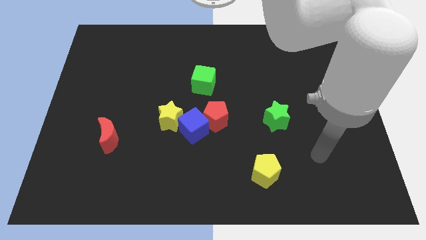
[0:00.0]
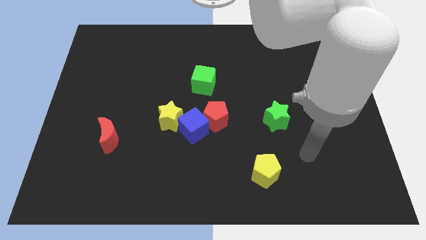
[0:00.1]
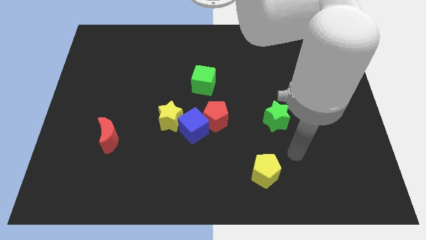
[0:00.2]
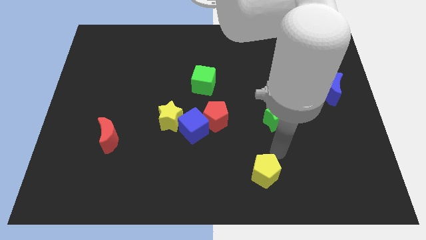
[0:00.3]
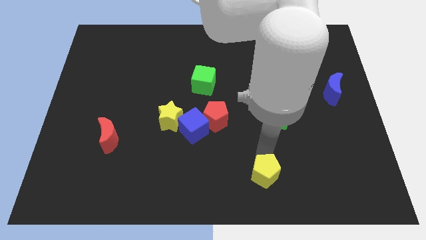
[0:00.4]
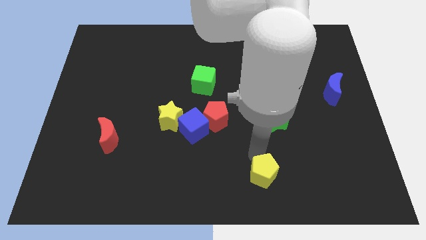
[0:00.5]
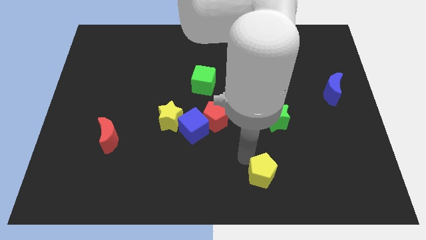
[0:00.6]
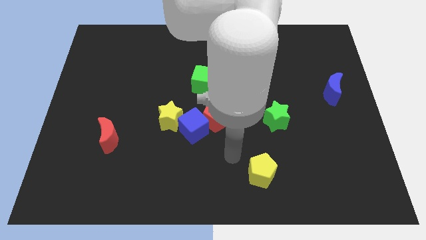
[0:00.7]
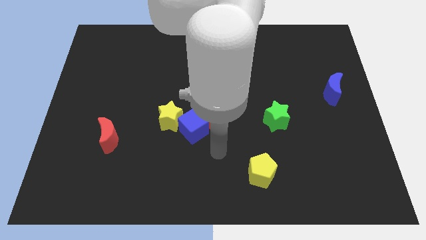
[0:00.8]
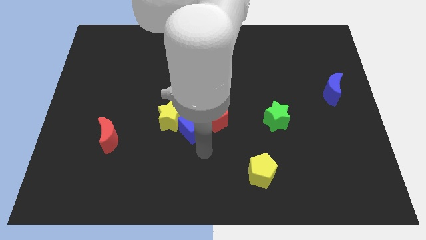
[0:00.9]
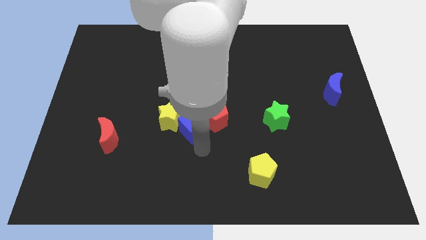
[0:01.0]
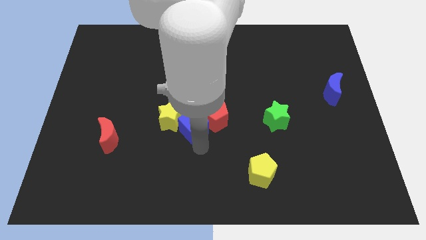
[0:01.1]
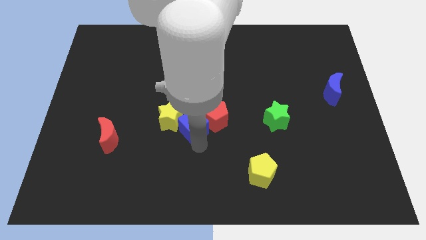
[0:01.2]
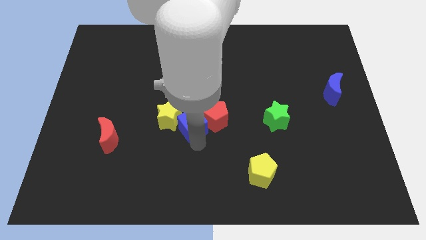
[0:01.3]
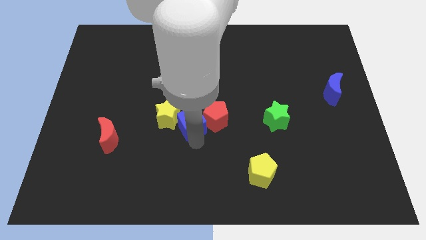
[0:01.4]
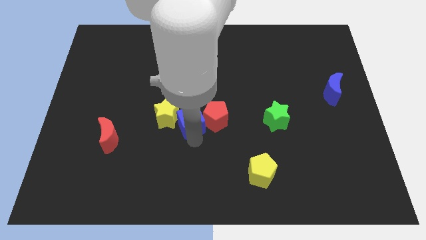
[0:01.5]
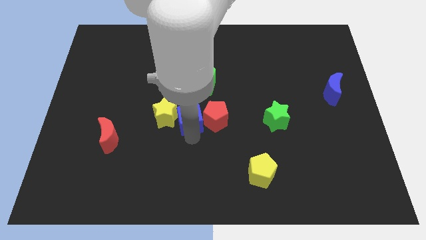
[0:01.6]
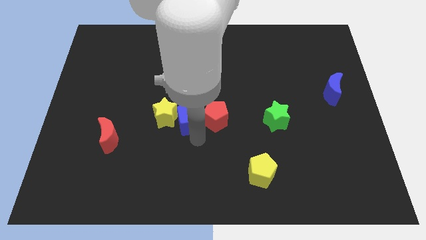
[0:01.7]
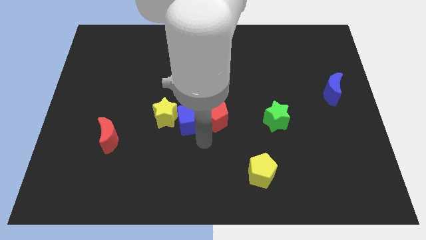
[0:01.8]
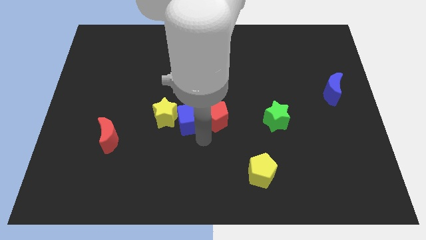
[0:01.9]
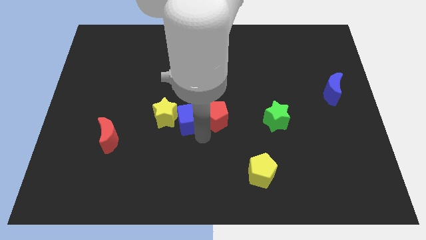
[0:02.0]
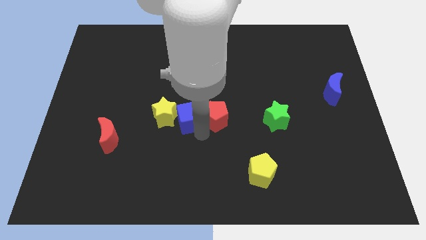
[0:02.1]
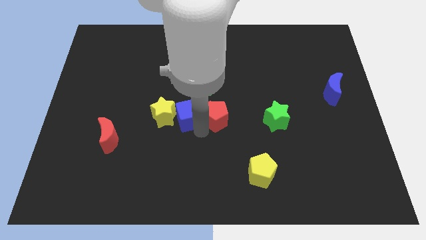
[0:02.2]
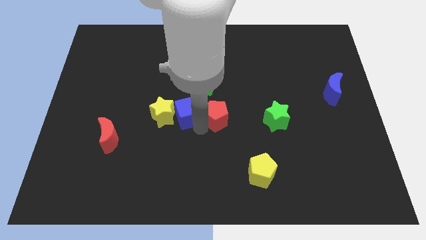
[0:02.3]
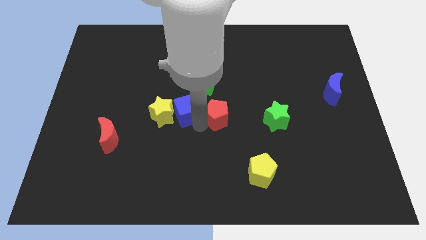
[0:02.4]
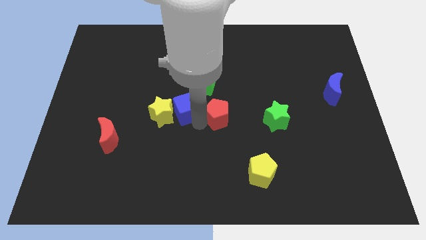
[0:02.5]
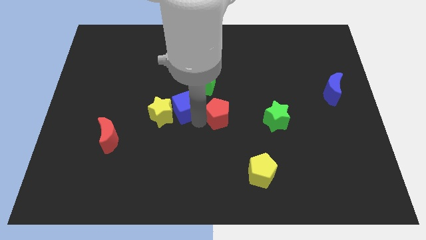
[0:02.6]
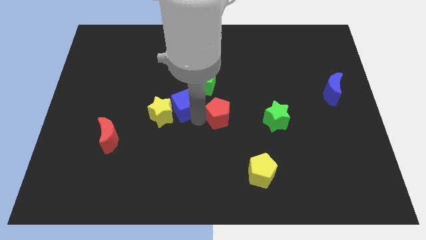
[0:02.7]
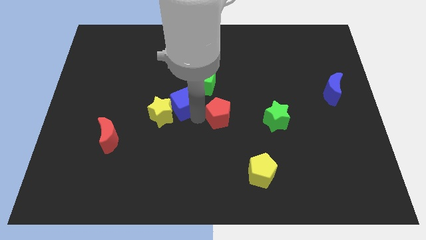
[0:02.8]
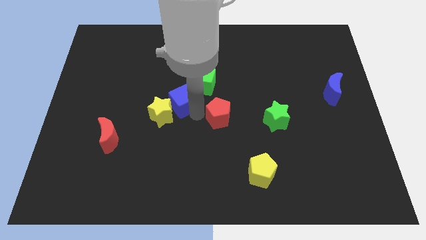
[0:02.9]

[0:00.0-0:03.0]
slightly slide the blue cube up and left

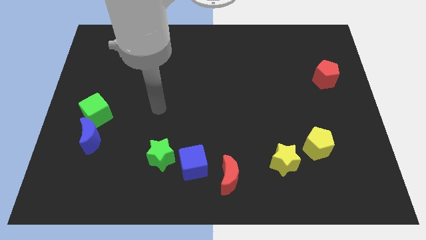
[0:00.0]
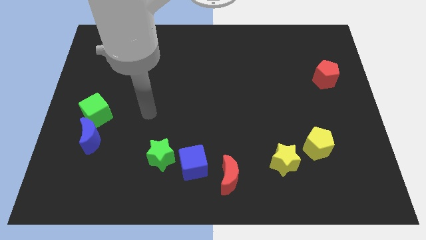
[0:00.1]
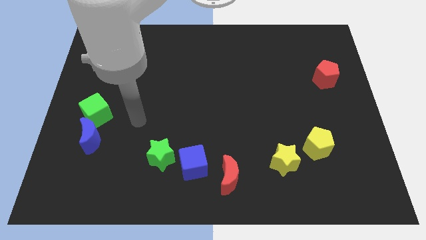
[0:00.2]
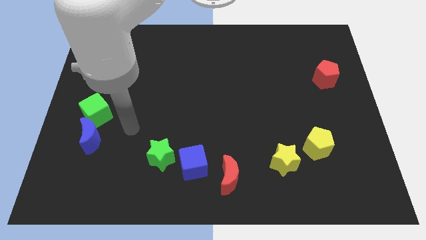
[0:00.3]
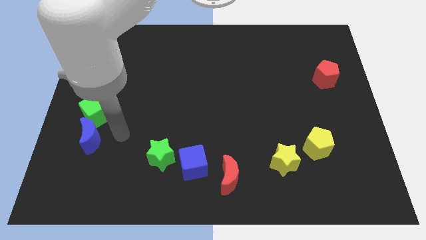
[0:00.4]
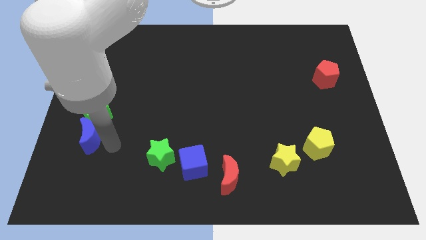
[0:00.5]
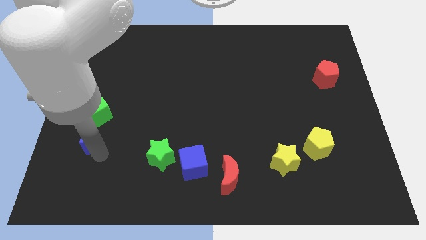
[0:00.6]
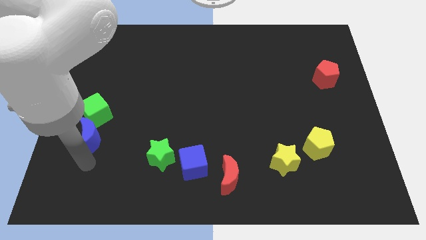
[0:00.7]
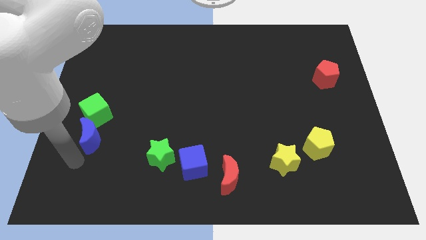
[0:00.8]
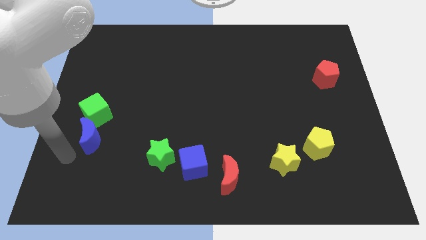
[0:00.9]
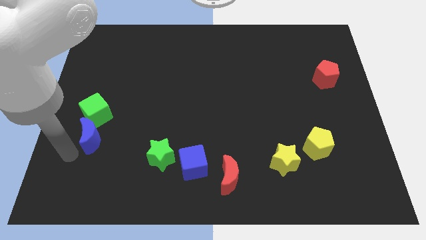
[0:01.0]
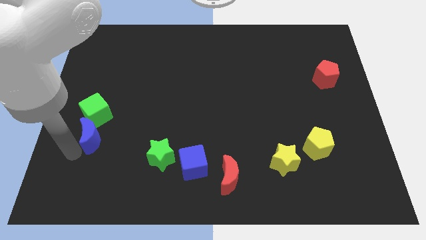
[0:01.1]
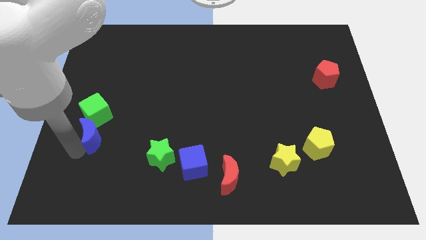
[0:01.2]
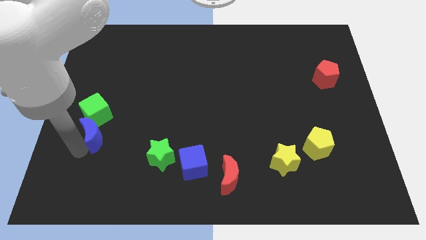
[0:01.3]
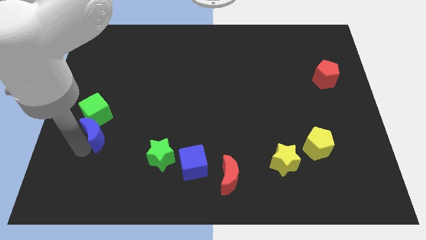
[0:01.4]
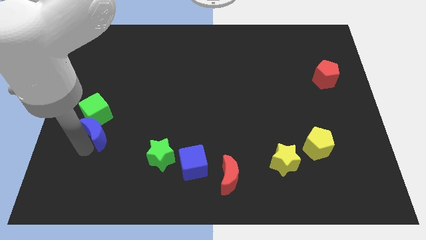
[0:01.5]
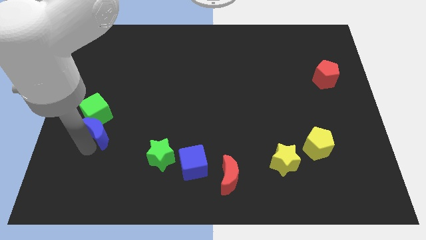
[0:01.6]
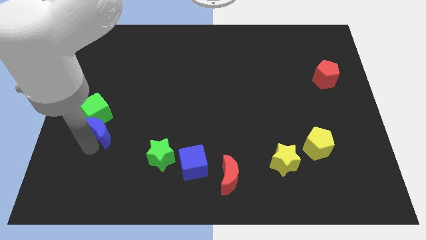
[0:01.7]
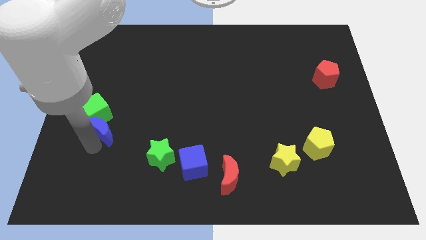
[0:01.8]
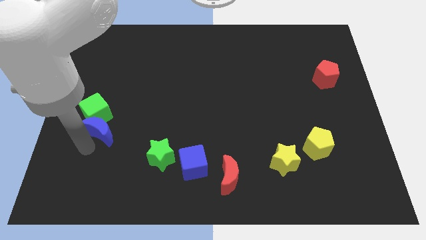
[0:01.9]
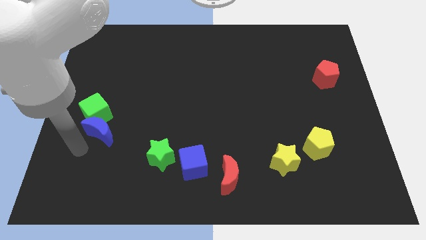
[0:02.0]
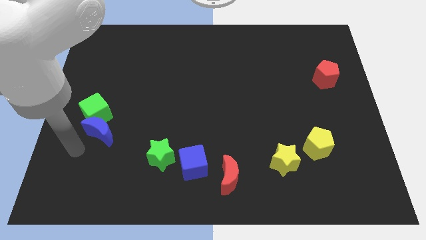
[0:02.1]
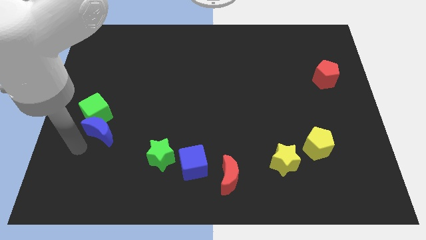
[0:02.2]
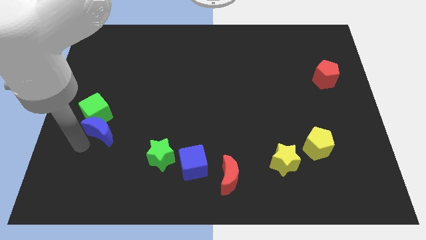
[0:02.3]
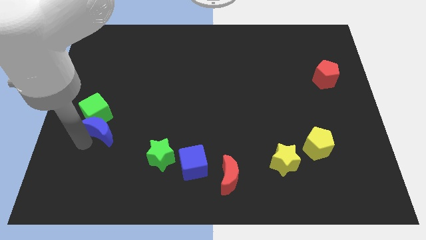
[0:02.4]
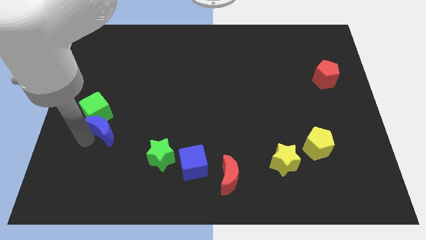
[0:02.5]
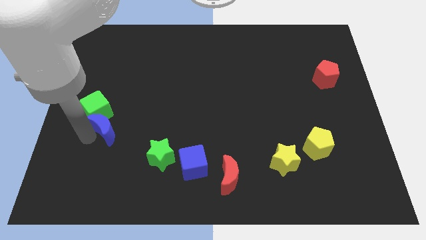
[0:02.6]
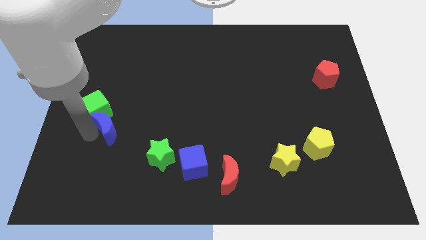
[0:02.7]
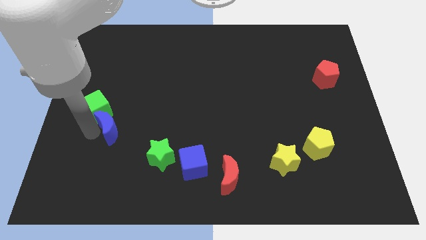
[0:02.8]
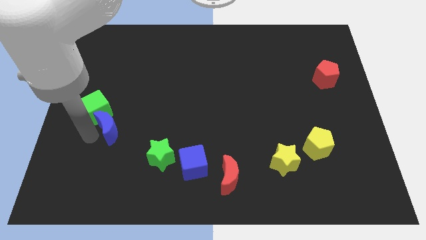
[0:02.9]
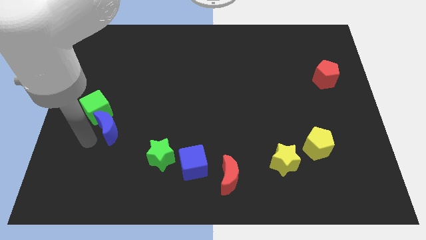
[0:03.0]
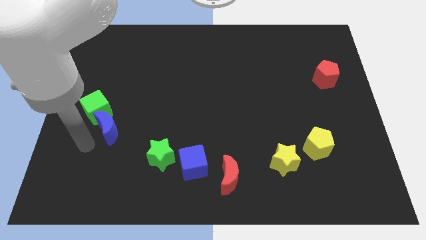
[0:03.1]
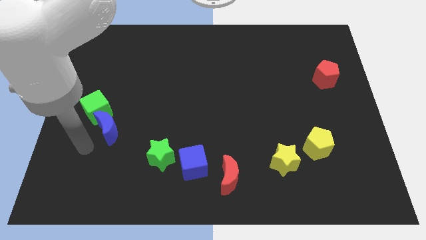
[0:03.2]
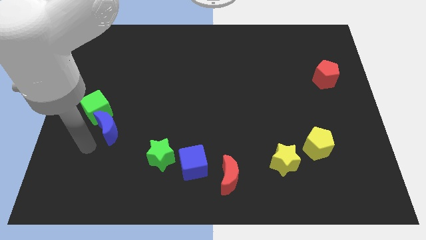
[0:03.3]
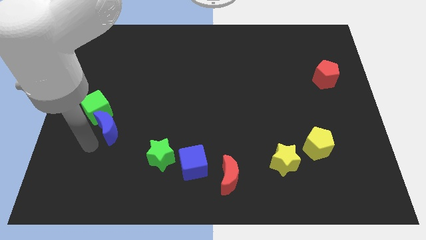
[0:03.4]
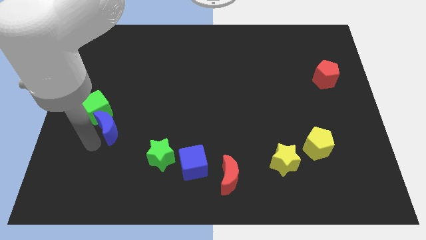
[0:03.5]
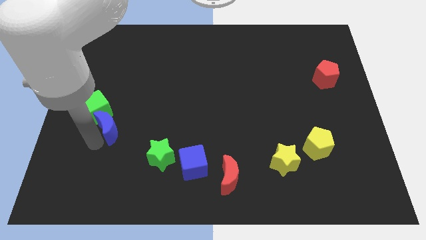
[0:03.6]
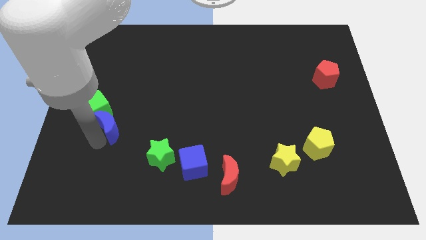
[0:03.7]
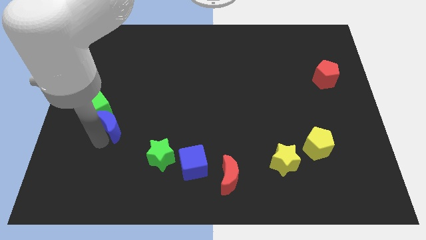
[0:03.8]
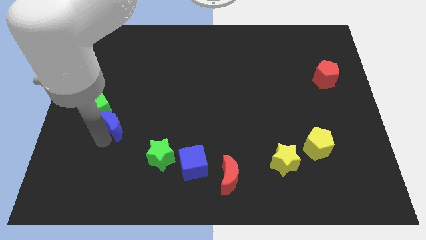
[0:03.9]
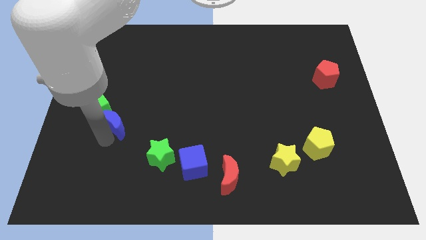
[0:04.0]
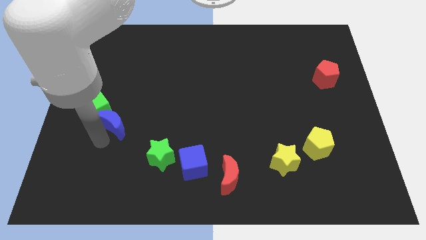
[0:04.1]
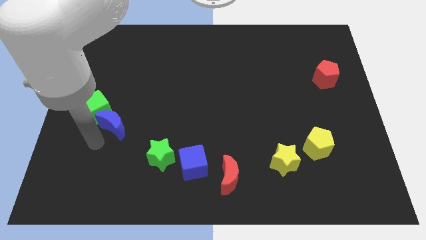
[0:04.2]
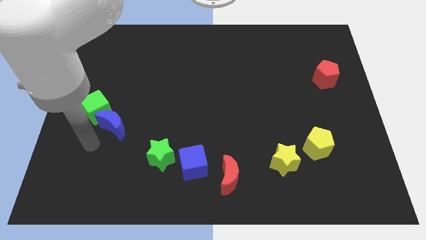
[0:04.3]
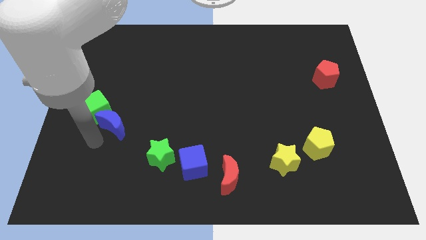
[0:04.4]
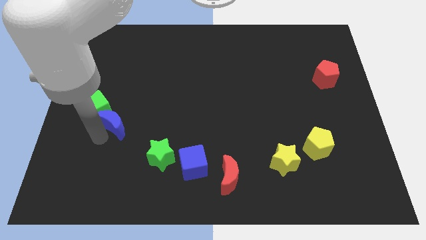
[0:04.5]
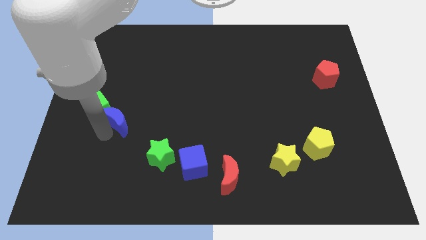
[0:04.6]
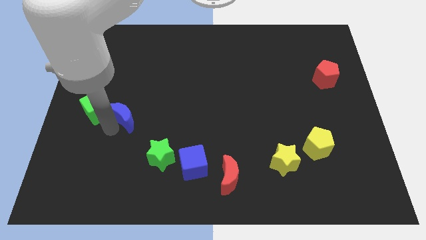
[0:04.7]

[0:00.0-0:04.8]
slightly slide the blue moon upwards and to the right

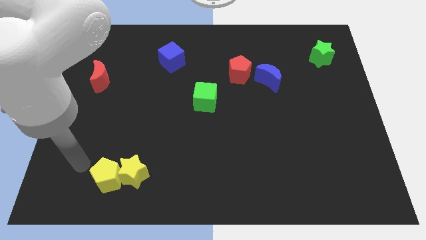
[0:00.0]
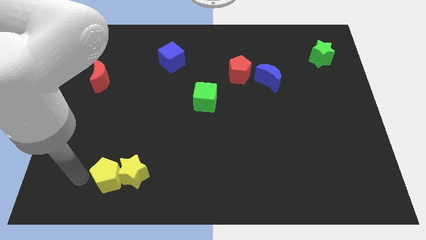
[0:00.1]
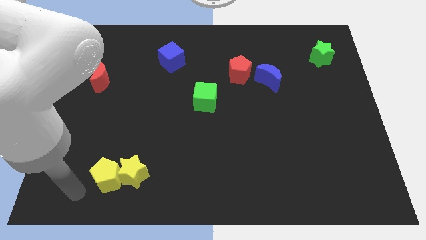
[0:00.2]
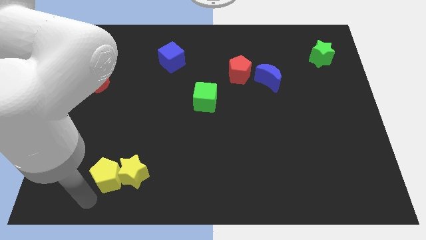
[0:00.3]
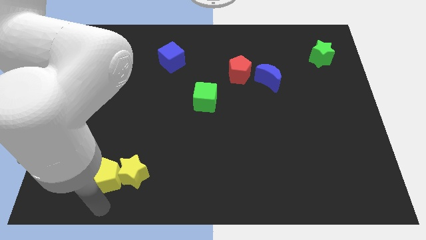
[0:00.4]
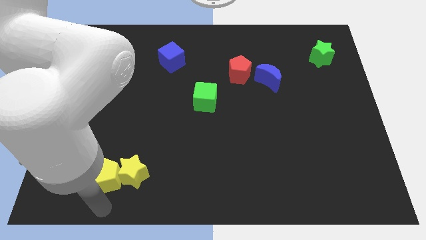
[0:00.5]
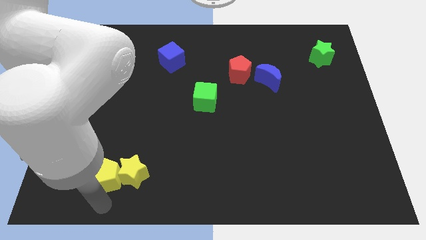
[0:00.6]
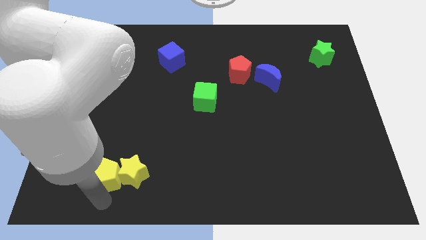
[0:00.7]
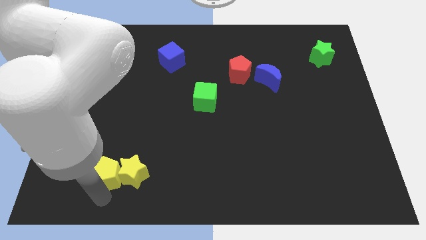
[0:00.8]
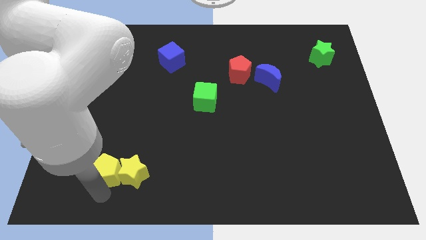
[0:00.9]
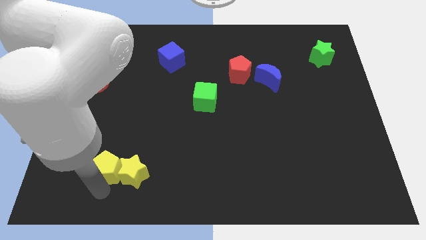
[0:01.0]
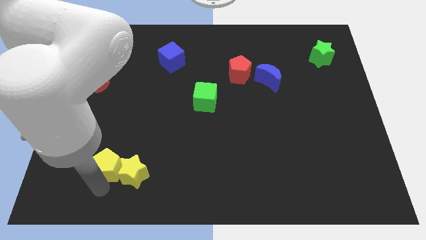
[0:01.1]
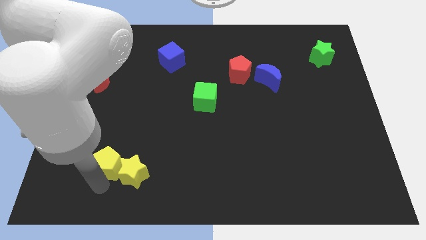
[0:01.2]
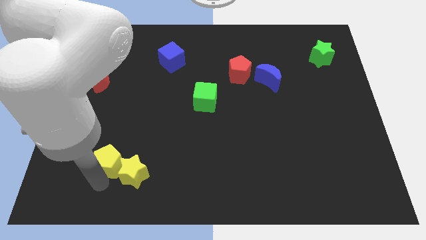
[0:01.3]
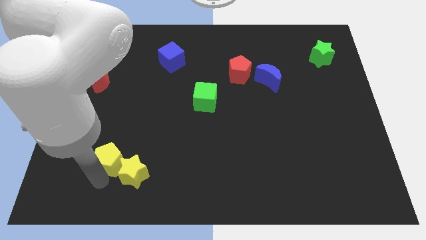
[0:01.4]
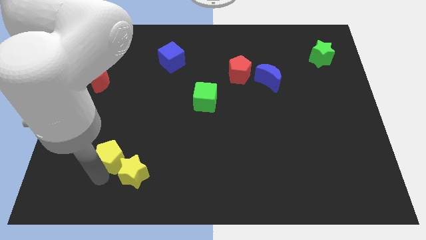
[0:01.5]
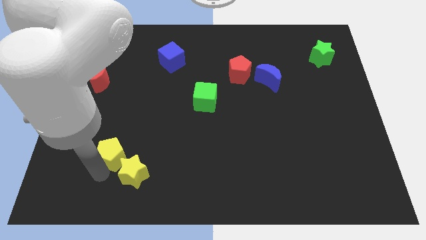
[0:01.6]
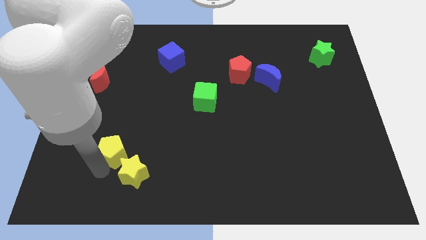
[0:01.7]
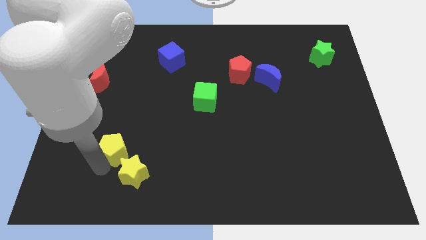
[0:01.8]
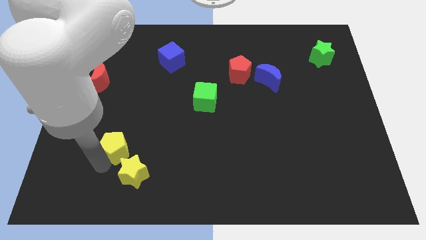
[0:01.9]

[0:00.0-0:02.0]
push the yellow pentagon up somewhat
